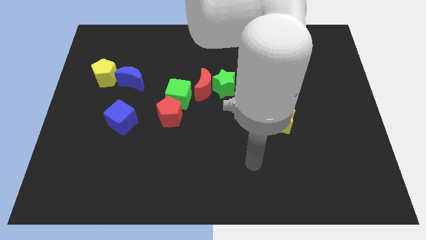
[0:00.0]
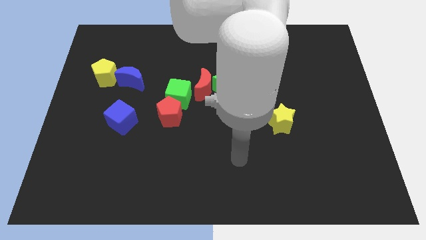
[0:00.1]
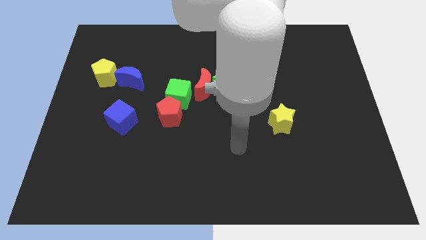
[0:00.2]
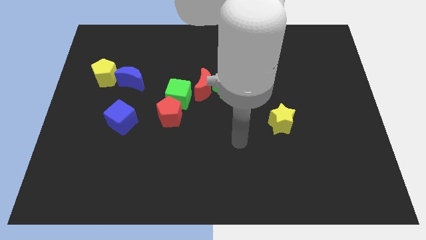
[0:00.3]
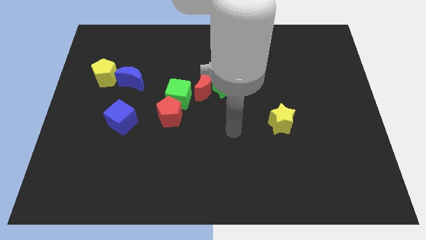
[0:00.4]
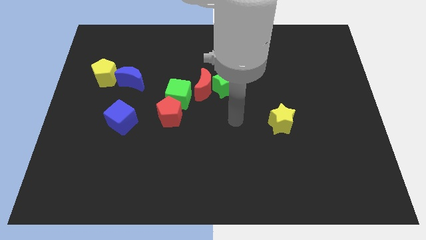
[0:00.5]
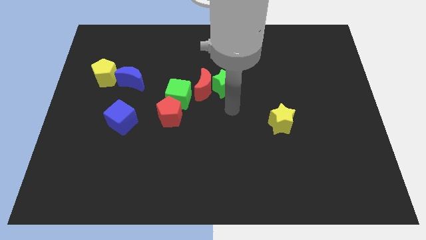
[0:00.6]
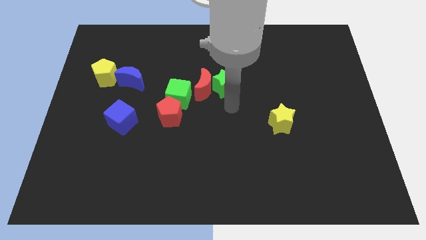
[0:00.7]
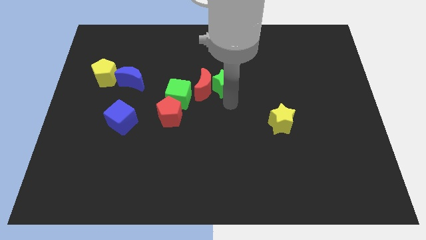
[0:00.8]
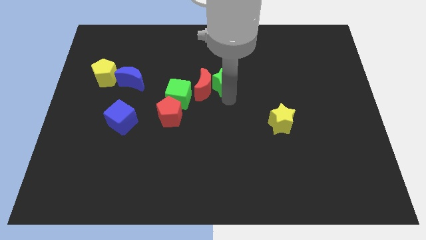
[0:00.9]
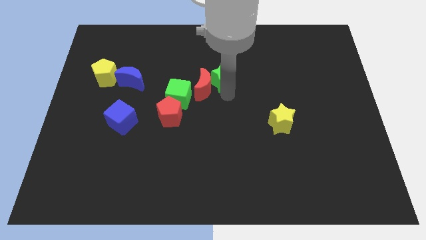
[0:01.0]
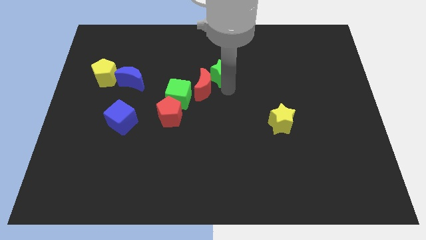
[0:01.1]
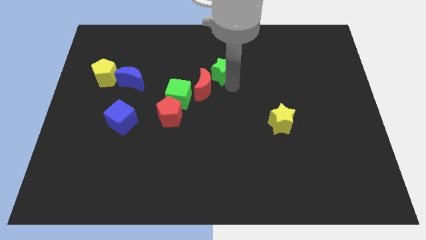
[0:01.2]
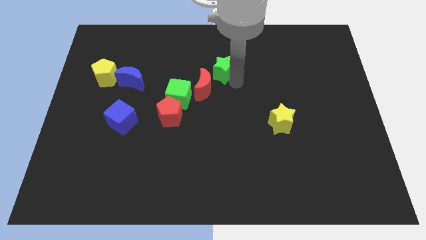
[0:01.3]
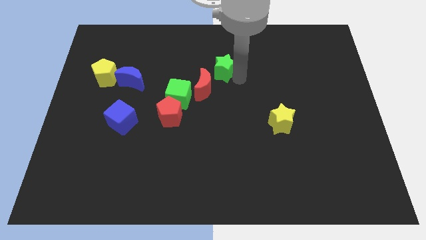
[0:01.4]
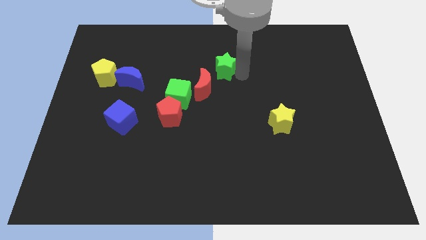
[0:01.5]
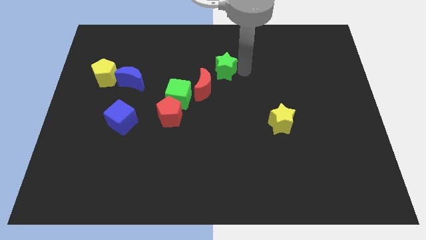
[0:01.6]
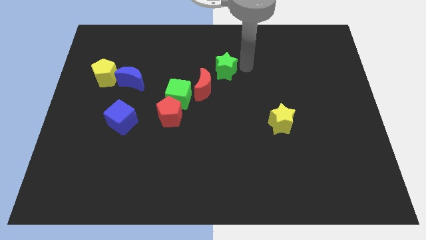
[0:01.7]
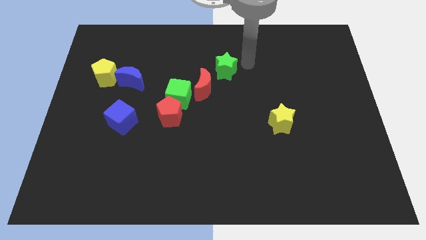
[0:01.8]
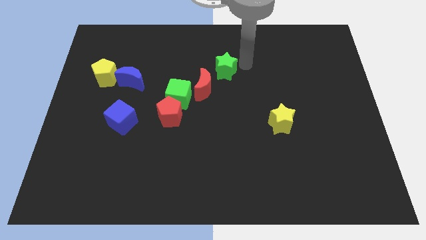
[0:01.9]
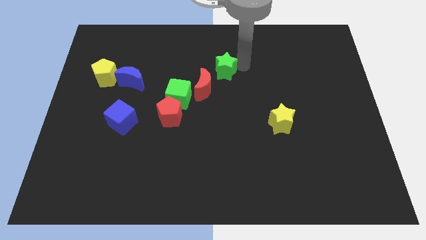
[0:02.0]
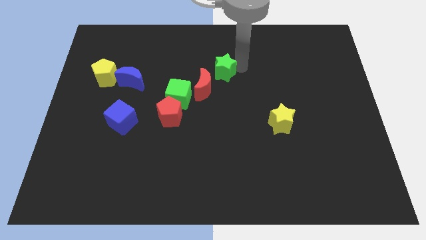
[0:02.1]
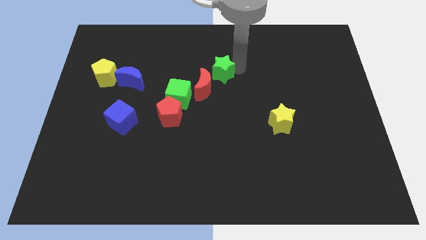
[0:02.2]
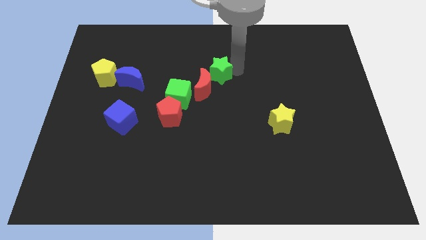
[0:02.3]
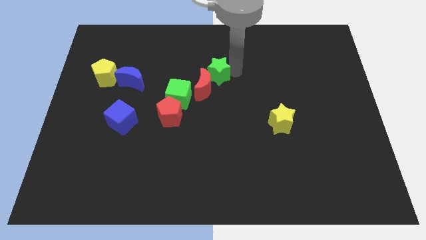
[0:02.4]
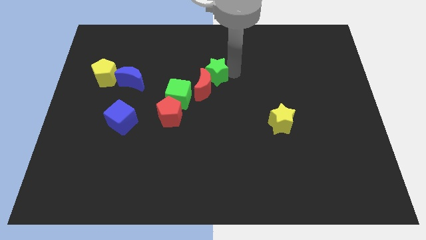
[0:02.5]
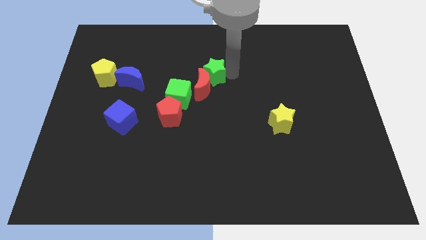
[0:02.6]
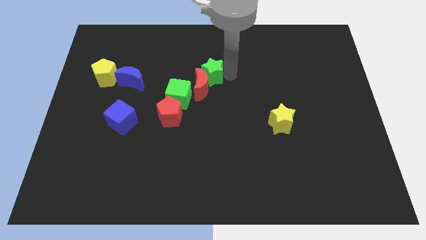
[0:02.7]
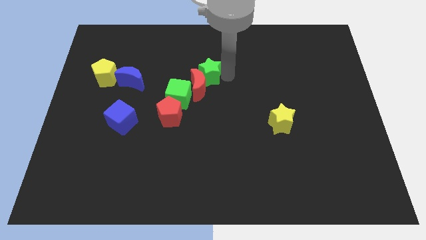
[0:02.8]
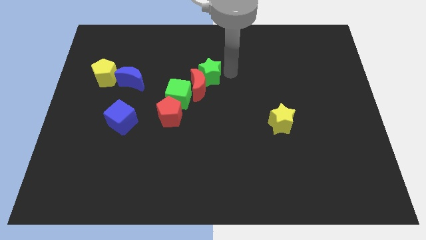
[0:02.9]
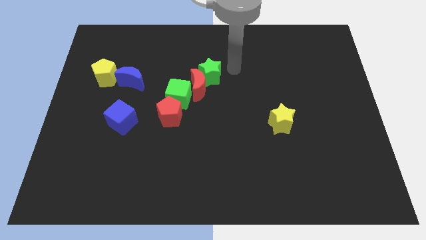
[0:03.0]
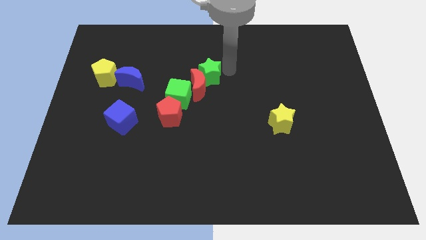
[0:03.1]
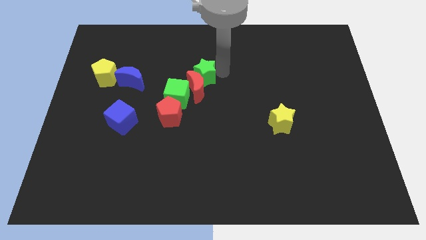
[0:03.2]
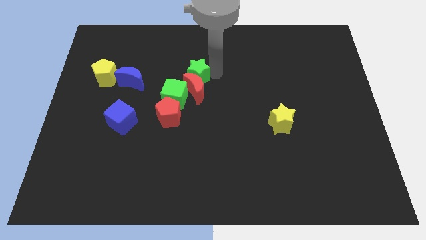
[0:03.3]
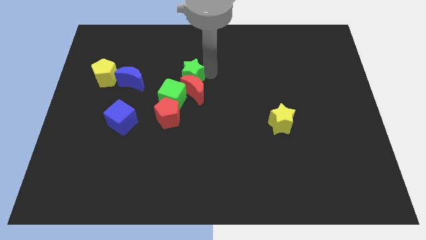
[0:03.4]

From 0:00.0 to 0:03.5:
slide the green star somewhat left

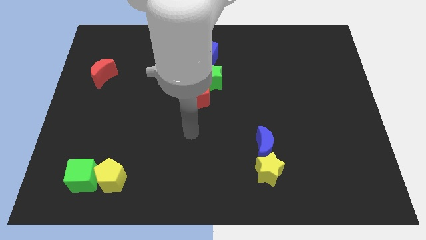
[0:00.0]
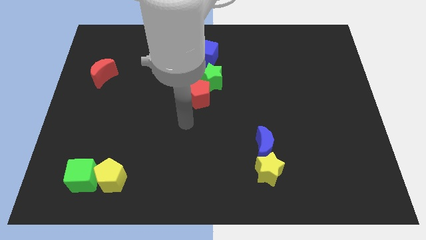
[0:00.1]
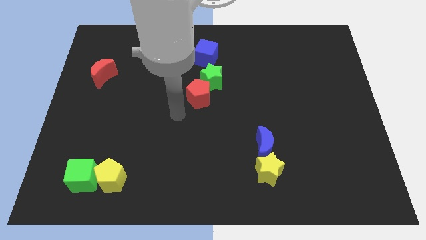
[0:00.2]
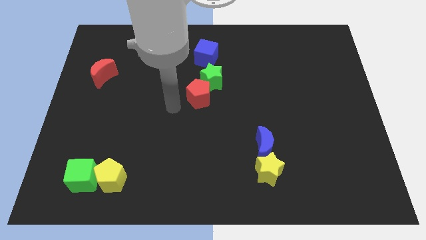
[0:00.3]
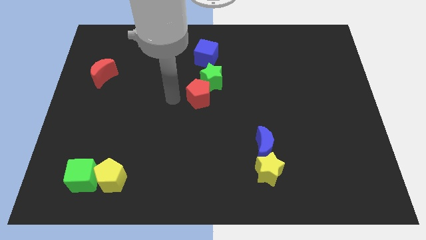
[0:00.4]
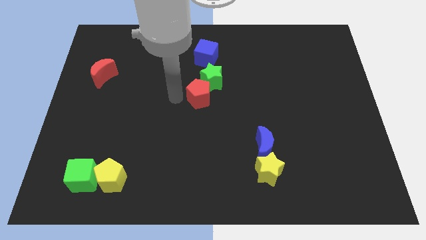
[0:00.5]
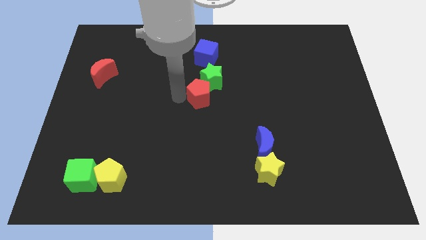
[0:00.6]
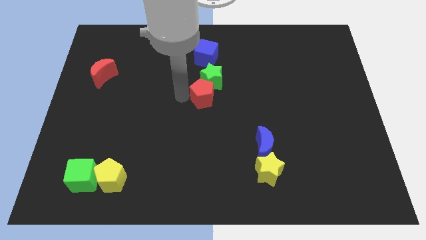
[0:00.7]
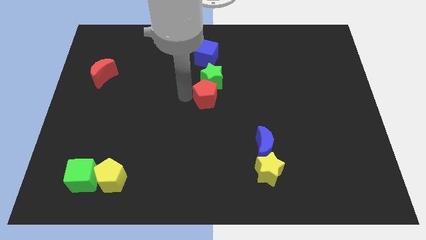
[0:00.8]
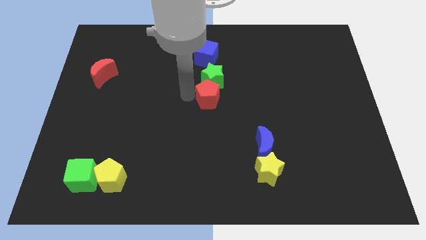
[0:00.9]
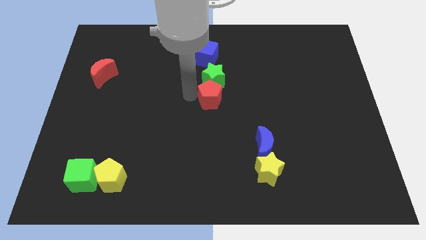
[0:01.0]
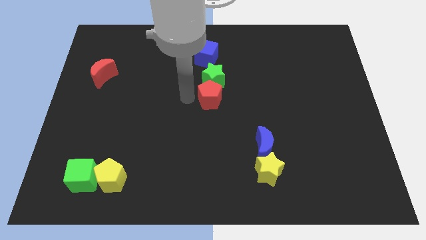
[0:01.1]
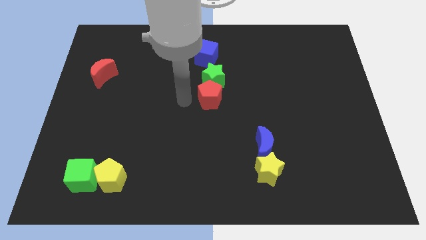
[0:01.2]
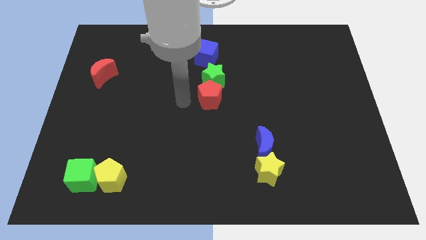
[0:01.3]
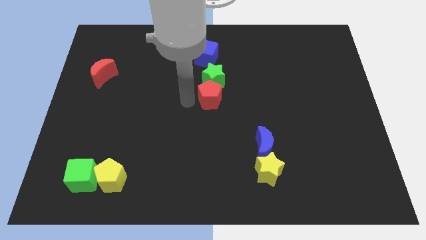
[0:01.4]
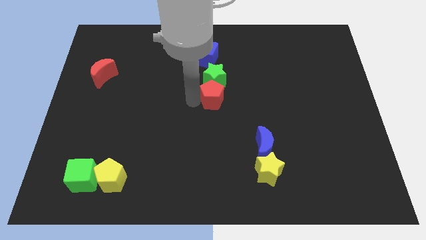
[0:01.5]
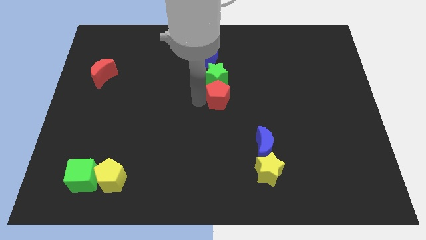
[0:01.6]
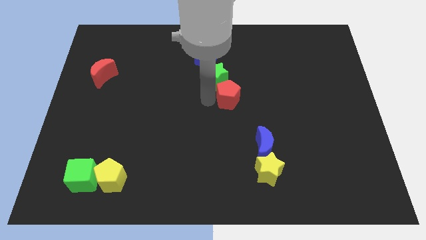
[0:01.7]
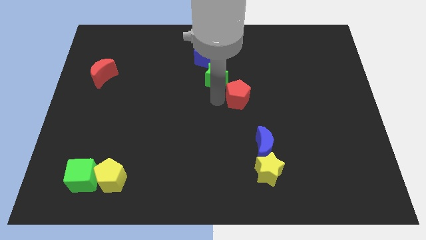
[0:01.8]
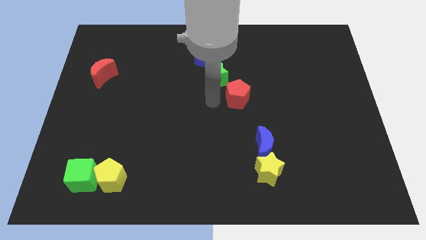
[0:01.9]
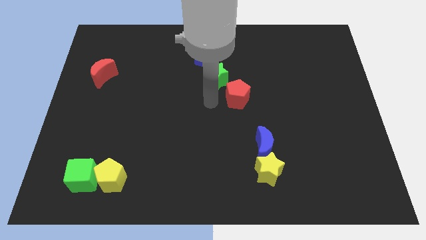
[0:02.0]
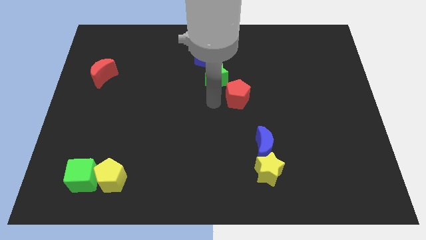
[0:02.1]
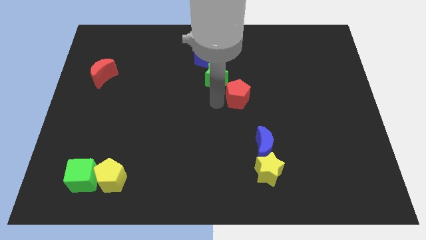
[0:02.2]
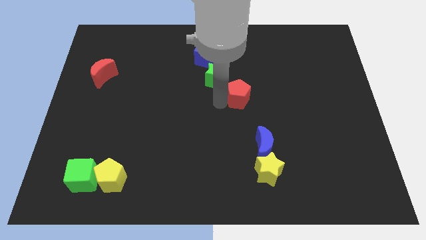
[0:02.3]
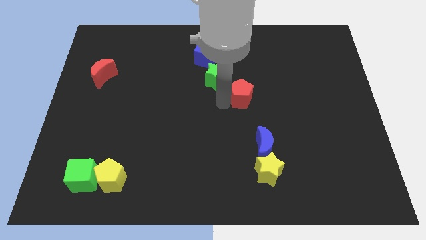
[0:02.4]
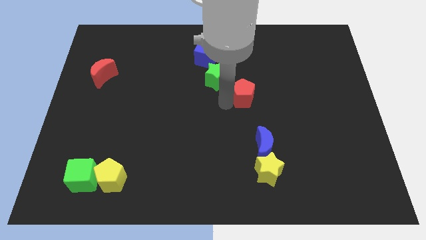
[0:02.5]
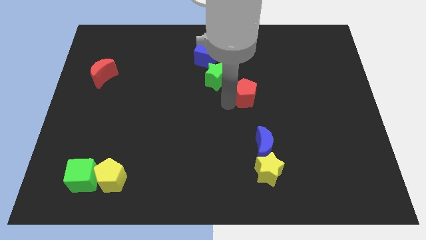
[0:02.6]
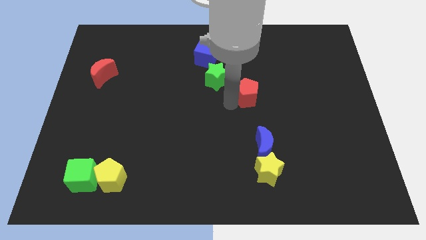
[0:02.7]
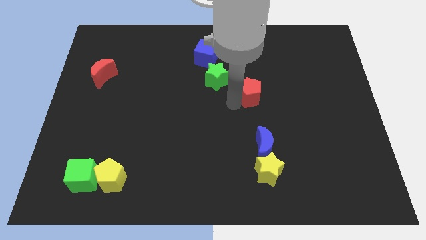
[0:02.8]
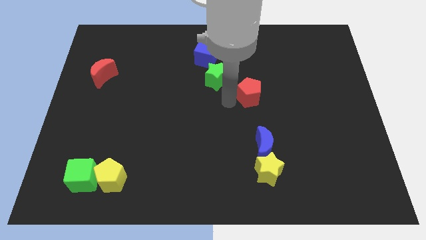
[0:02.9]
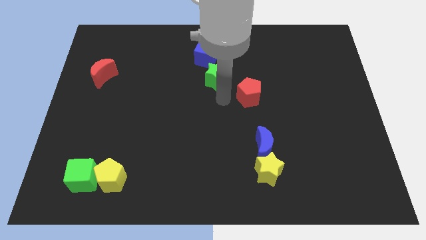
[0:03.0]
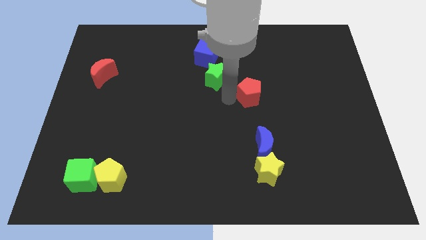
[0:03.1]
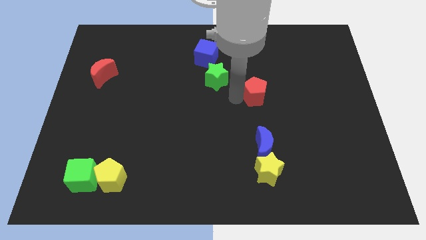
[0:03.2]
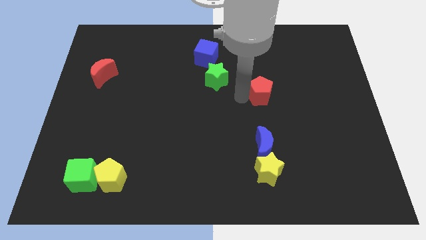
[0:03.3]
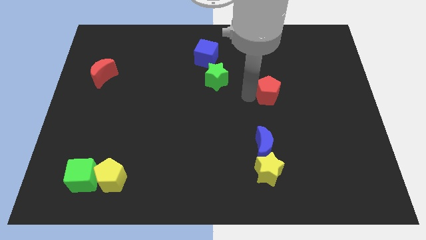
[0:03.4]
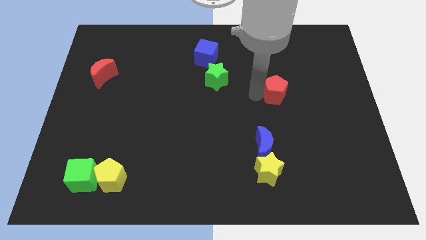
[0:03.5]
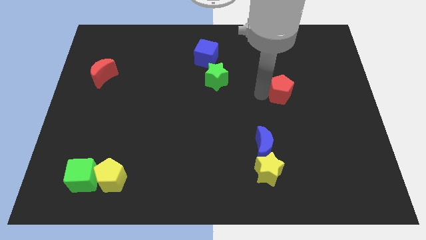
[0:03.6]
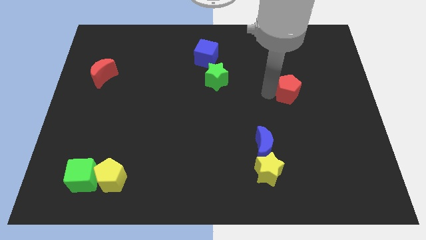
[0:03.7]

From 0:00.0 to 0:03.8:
slide the red pentagon to the right

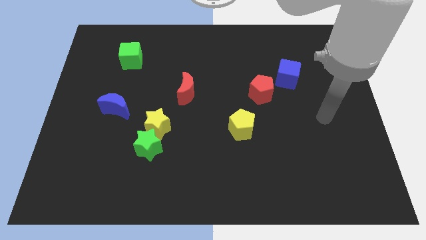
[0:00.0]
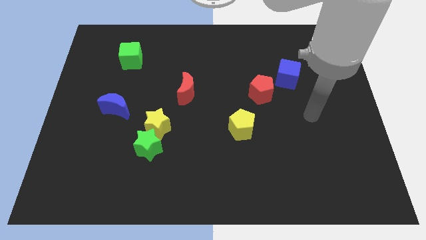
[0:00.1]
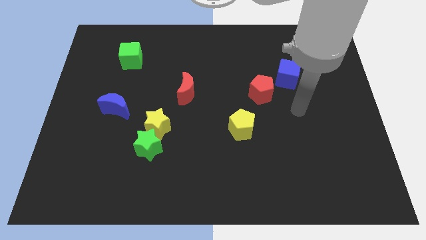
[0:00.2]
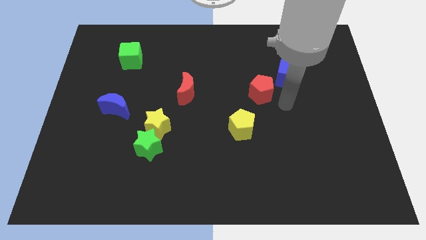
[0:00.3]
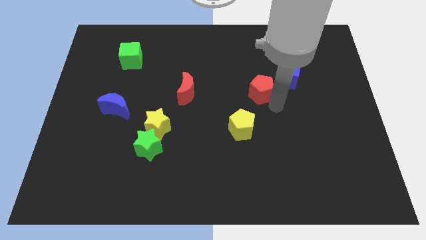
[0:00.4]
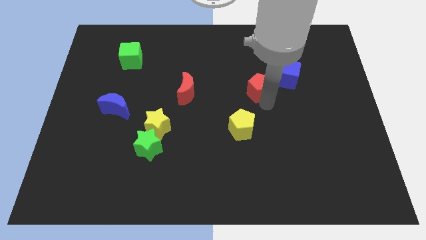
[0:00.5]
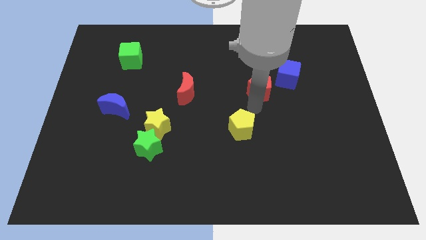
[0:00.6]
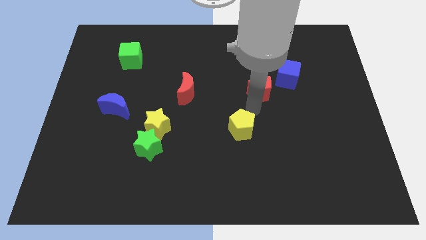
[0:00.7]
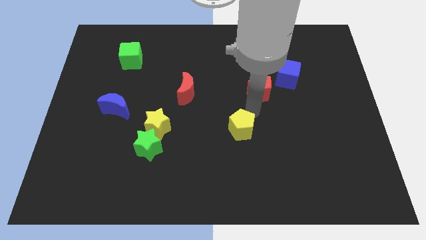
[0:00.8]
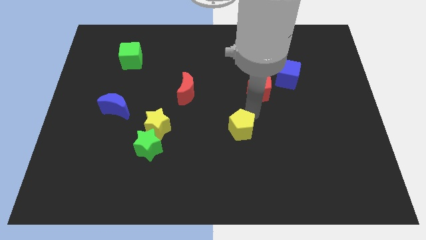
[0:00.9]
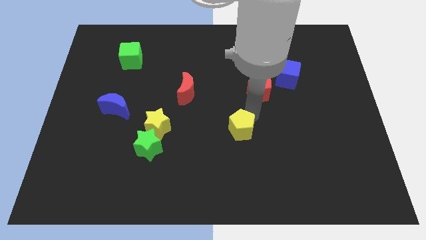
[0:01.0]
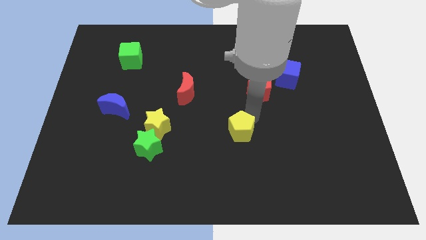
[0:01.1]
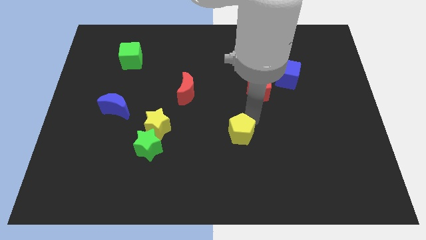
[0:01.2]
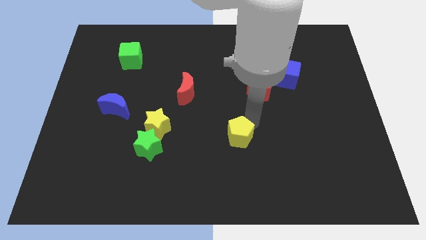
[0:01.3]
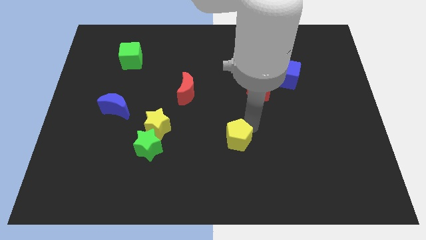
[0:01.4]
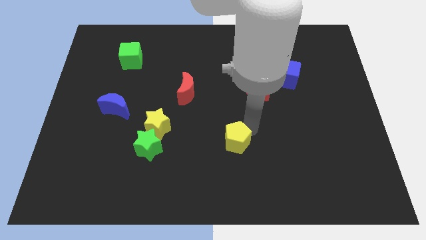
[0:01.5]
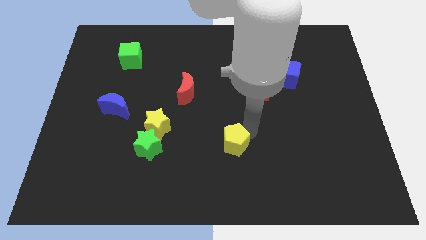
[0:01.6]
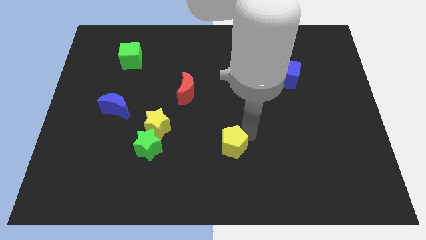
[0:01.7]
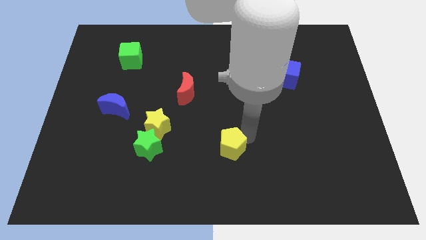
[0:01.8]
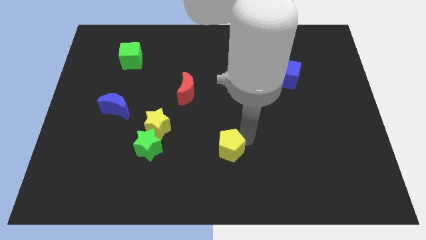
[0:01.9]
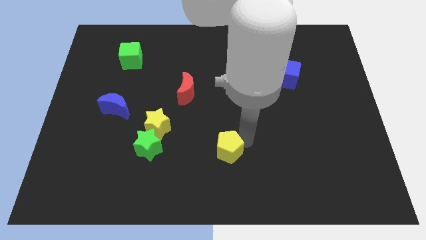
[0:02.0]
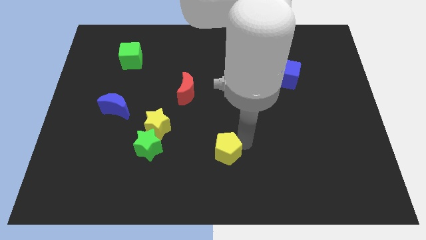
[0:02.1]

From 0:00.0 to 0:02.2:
slightly push the yellow pentagon down and to the left diagonally
